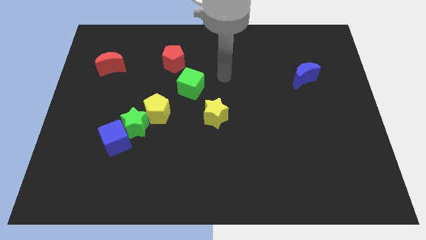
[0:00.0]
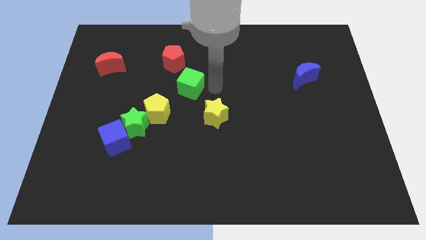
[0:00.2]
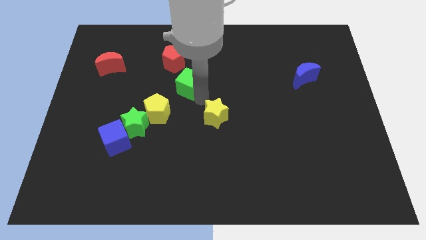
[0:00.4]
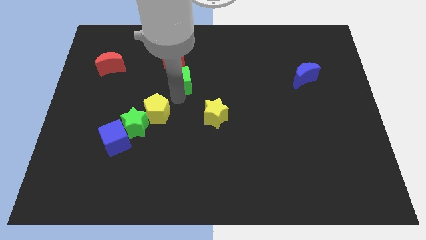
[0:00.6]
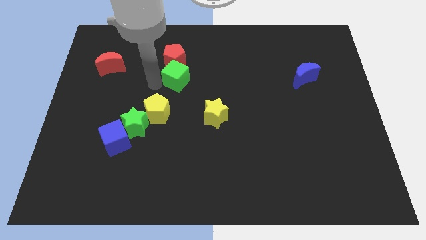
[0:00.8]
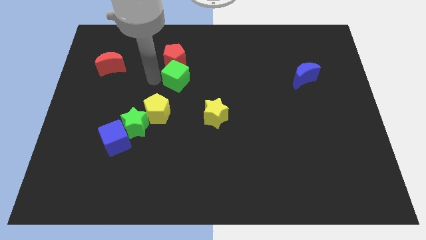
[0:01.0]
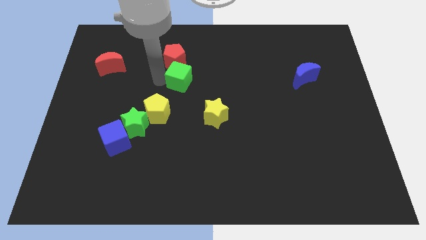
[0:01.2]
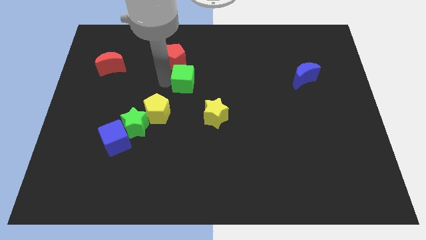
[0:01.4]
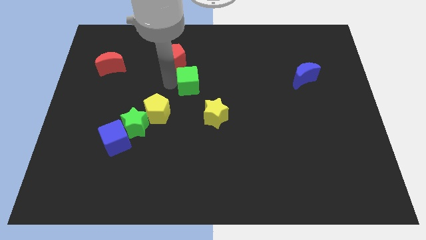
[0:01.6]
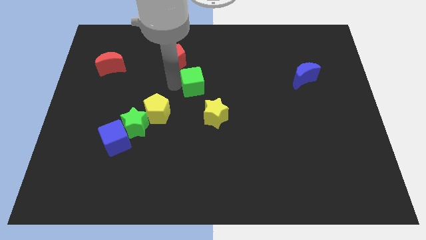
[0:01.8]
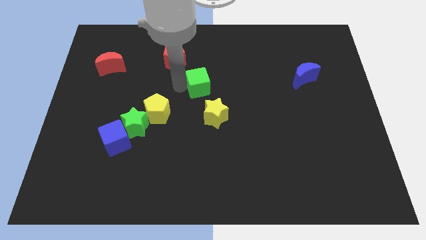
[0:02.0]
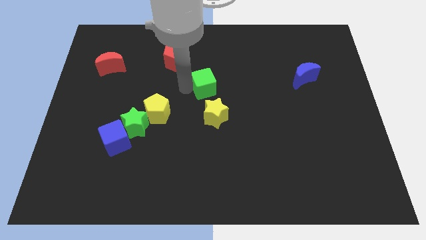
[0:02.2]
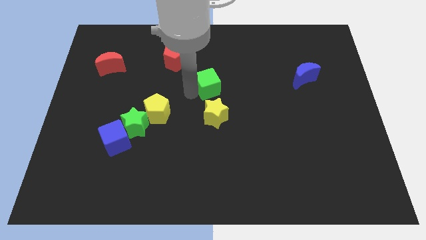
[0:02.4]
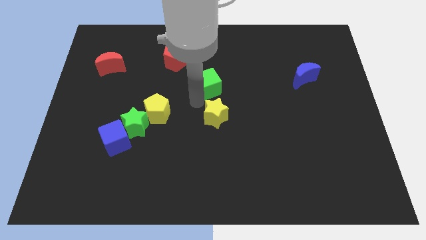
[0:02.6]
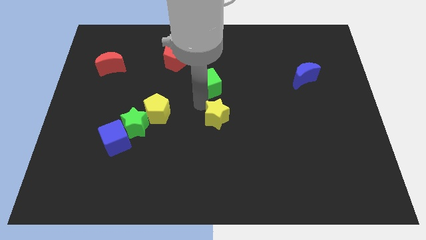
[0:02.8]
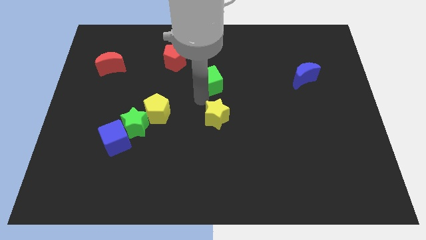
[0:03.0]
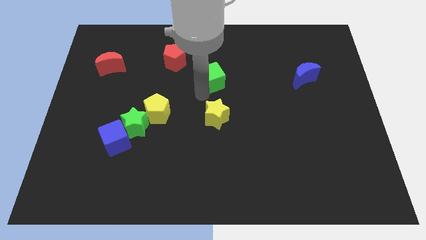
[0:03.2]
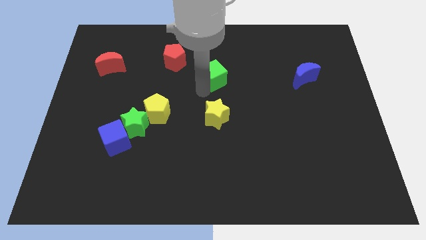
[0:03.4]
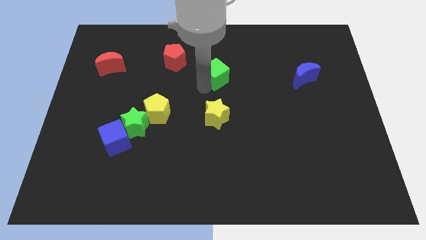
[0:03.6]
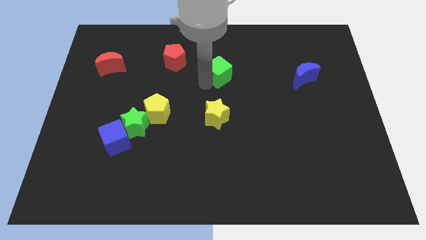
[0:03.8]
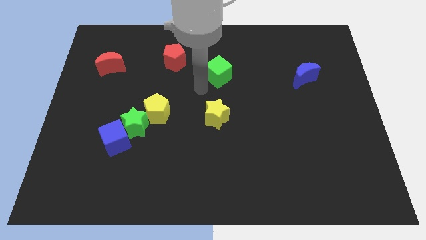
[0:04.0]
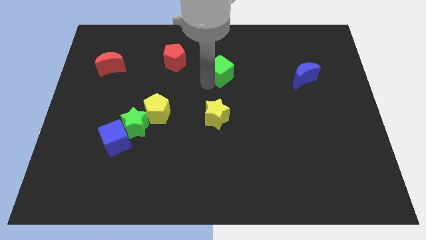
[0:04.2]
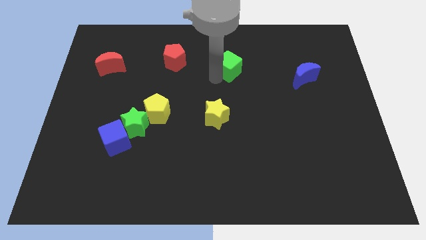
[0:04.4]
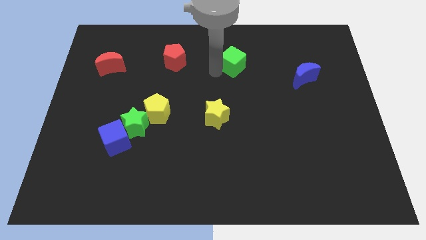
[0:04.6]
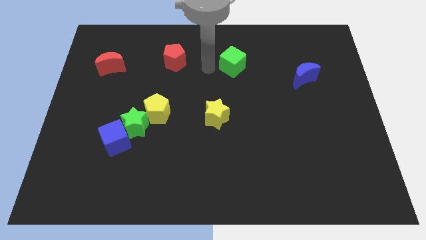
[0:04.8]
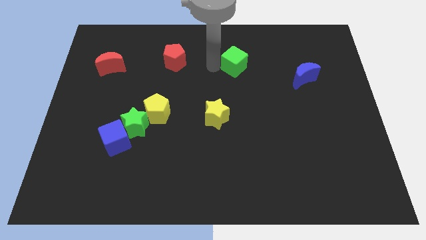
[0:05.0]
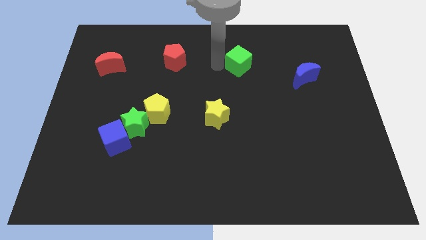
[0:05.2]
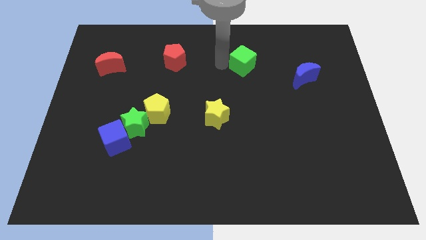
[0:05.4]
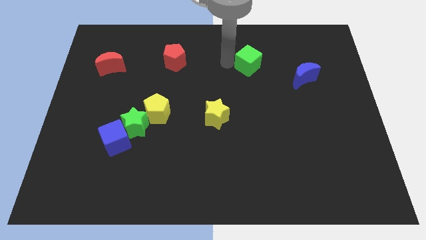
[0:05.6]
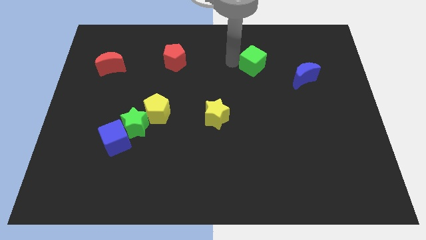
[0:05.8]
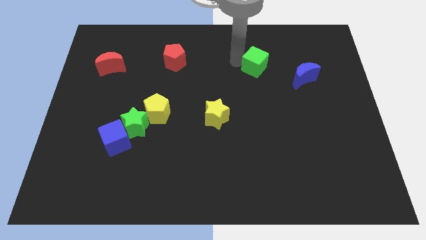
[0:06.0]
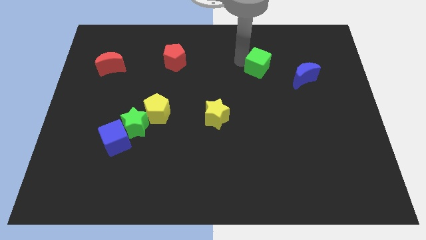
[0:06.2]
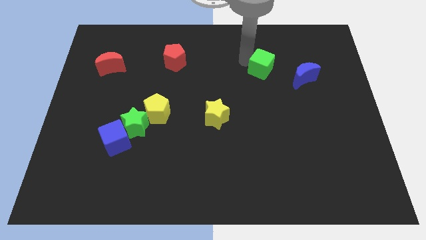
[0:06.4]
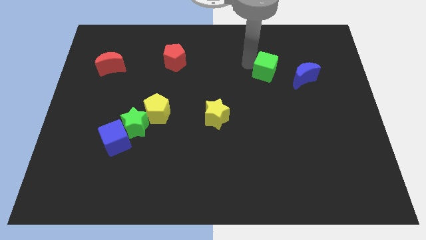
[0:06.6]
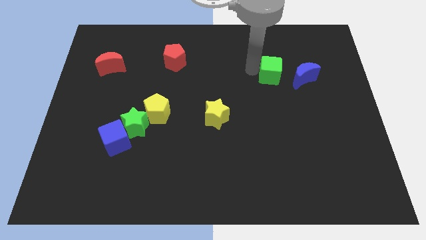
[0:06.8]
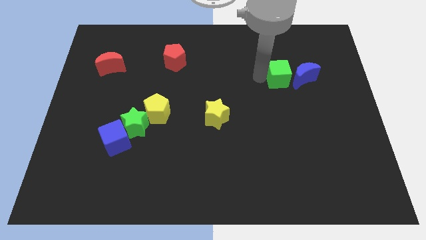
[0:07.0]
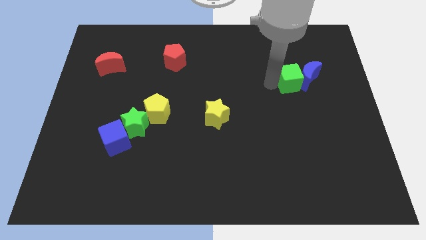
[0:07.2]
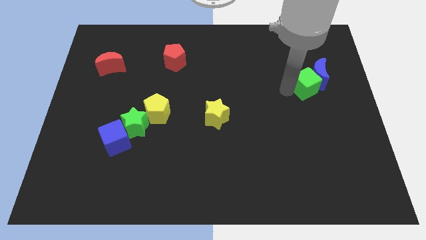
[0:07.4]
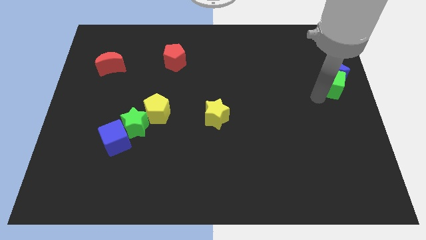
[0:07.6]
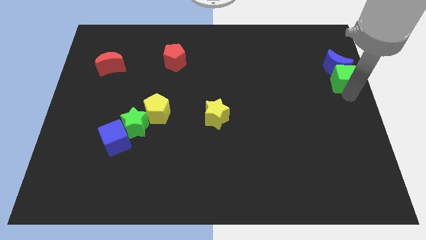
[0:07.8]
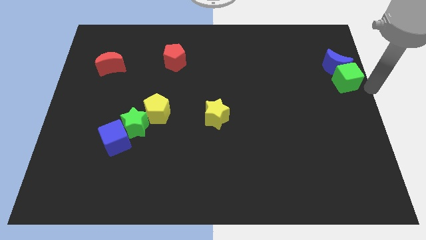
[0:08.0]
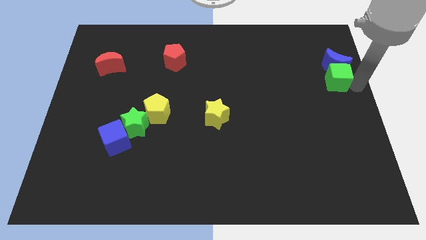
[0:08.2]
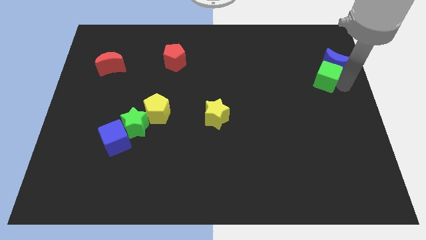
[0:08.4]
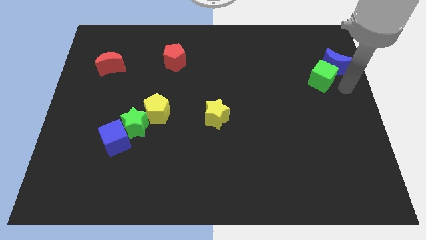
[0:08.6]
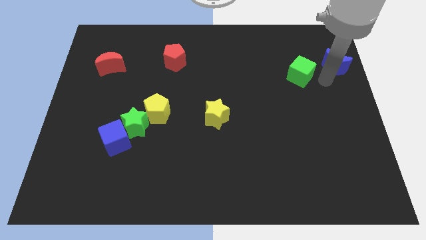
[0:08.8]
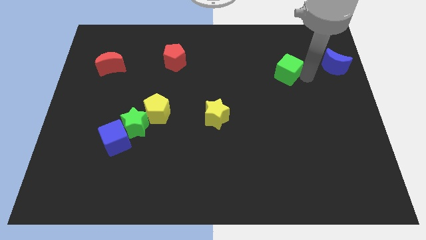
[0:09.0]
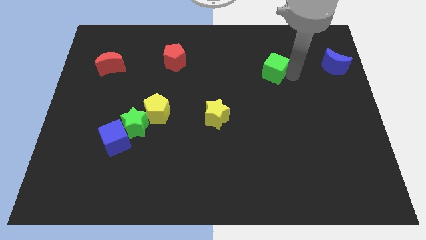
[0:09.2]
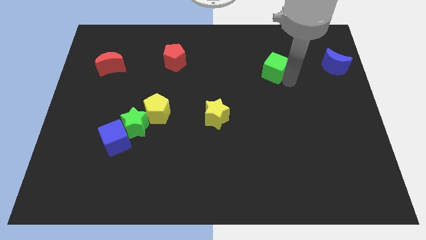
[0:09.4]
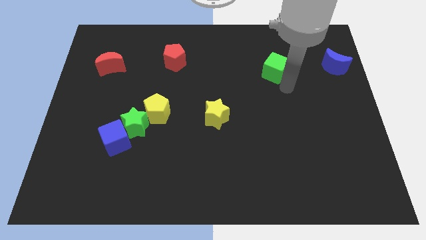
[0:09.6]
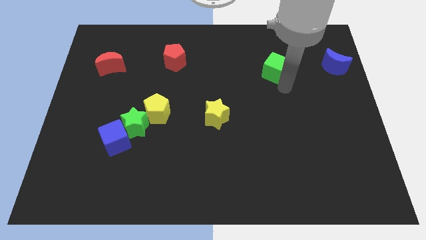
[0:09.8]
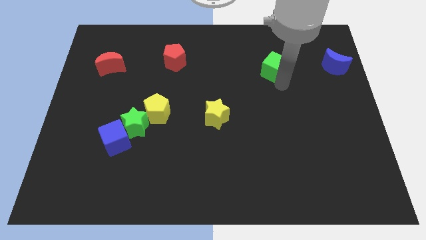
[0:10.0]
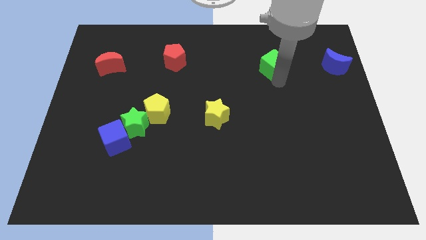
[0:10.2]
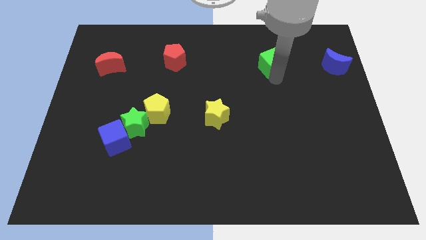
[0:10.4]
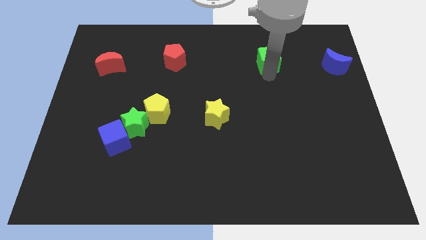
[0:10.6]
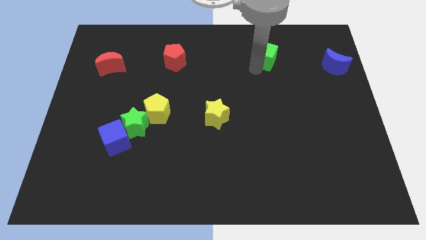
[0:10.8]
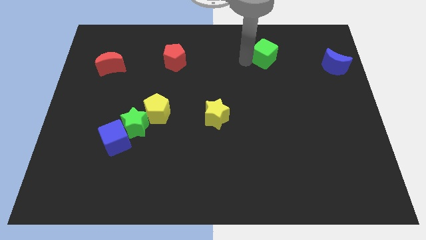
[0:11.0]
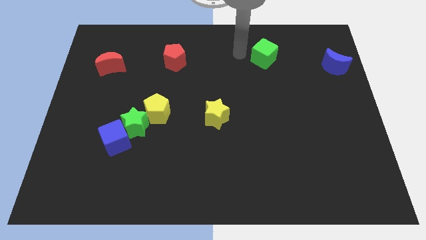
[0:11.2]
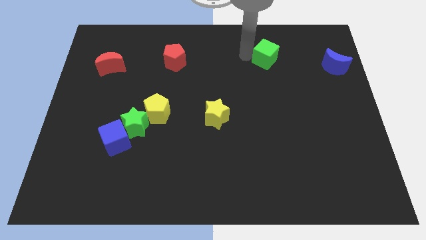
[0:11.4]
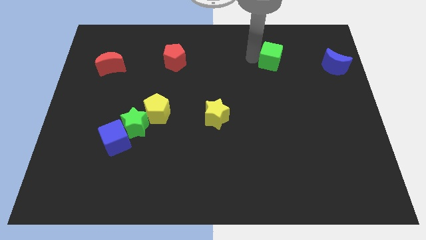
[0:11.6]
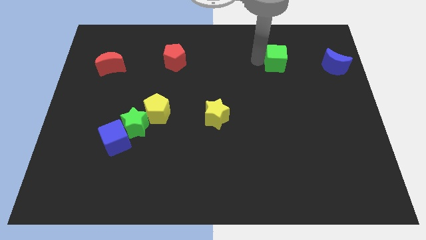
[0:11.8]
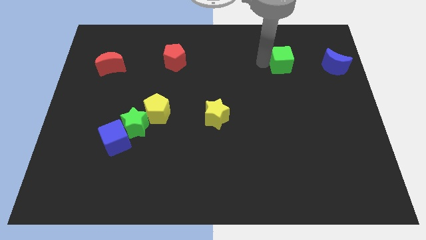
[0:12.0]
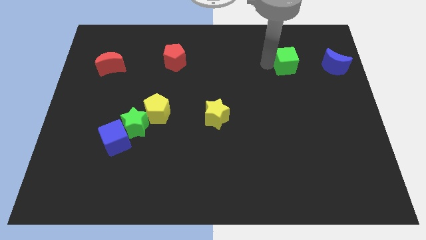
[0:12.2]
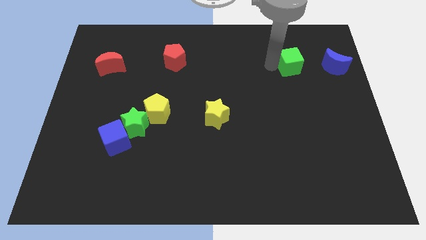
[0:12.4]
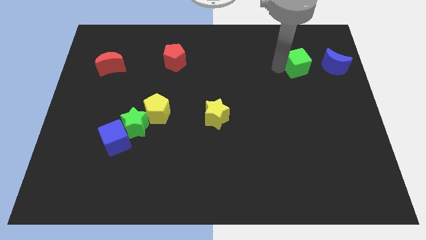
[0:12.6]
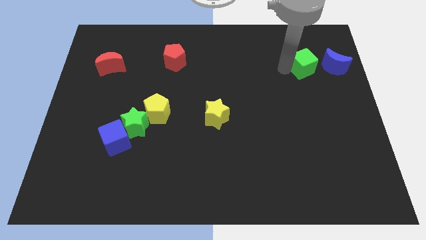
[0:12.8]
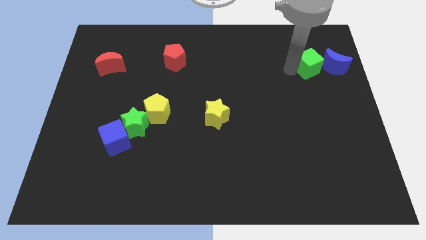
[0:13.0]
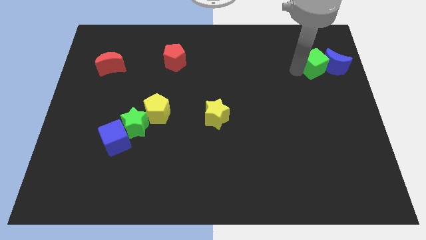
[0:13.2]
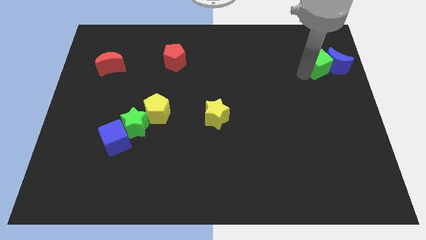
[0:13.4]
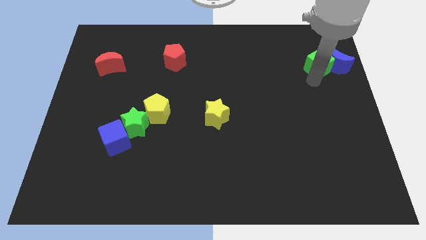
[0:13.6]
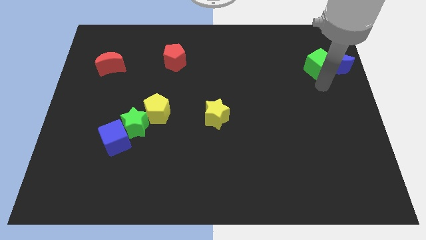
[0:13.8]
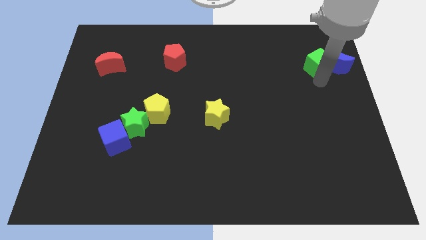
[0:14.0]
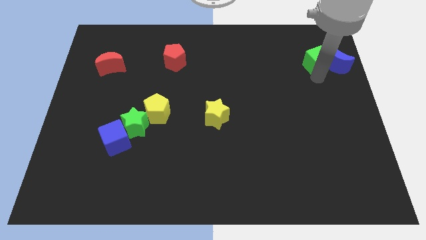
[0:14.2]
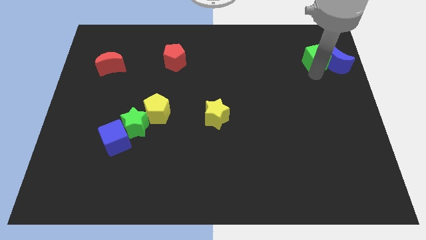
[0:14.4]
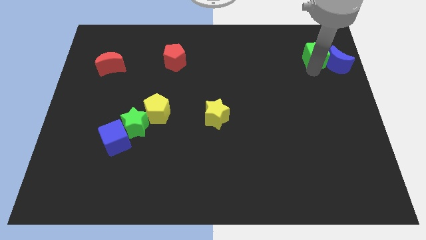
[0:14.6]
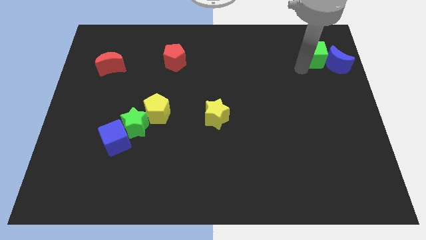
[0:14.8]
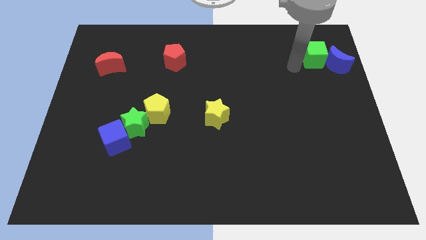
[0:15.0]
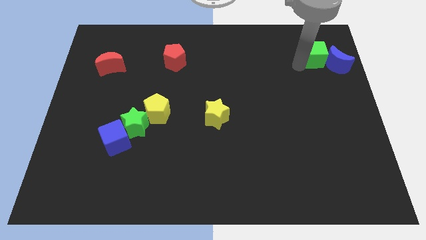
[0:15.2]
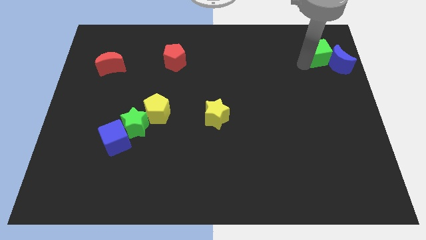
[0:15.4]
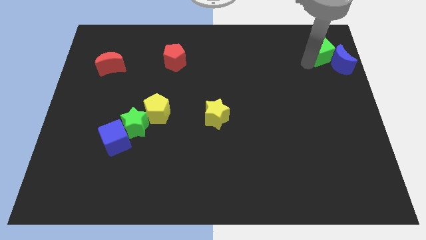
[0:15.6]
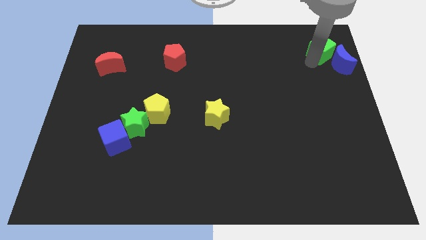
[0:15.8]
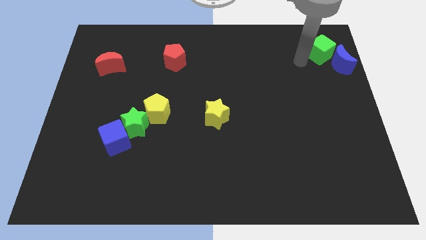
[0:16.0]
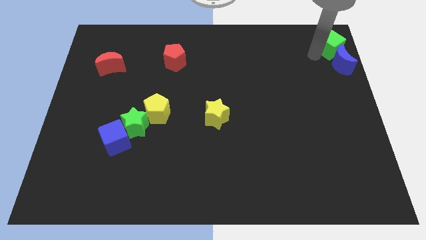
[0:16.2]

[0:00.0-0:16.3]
move the green cube to the top right corner
